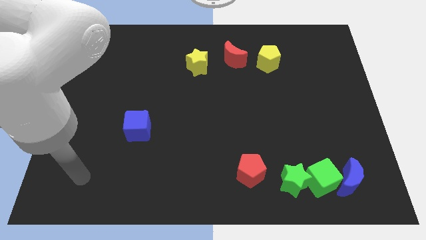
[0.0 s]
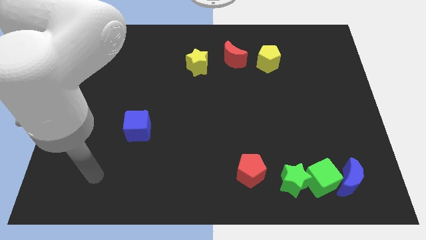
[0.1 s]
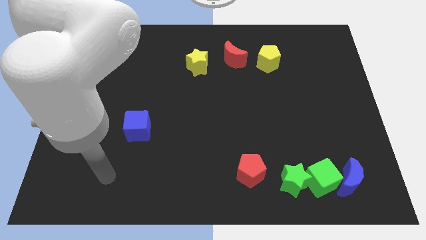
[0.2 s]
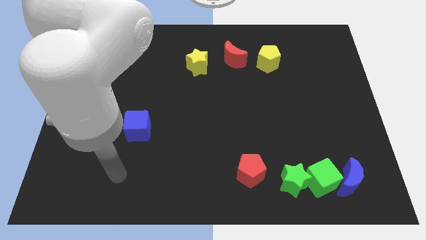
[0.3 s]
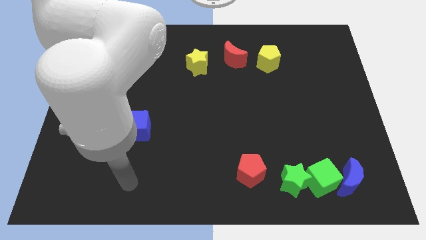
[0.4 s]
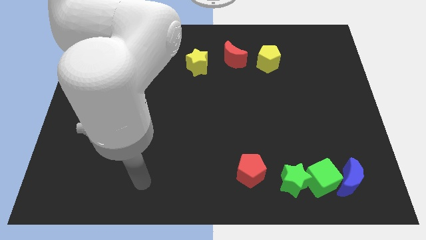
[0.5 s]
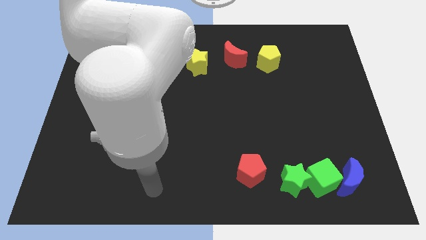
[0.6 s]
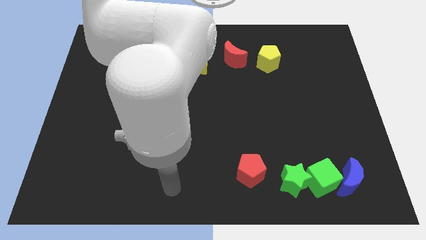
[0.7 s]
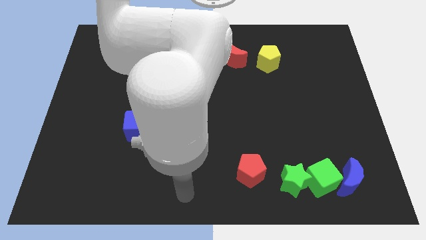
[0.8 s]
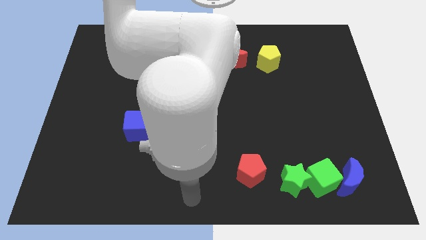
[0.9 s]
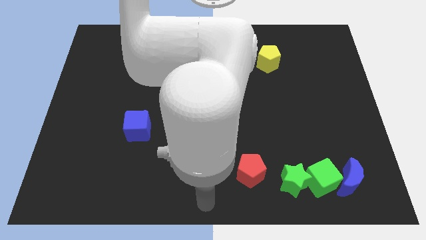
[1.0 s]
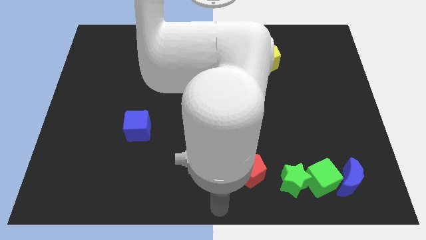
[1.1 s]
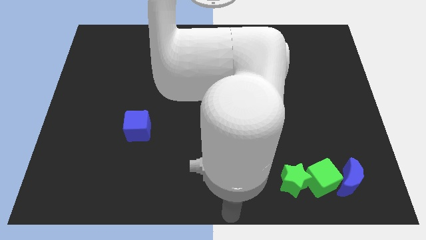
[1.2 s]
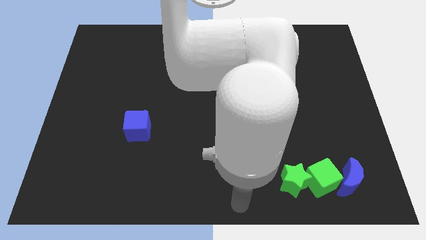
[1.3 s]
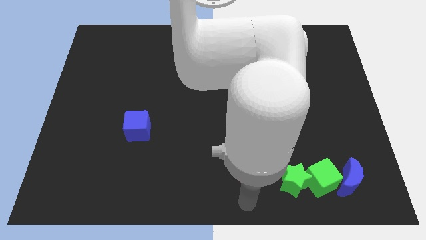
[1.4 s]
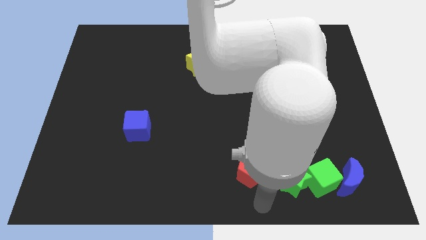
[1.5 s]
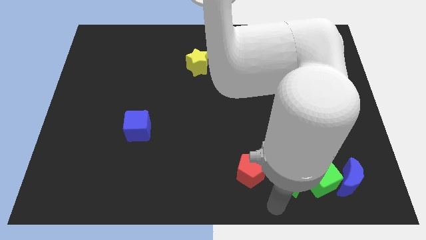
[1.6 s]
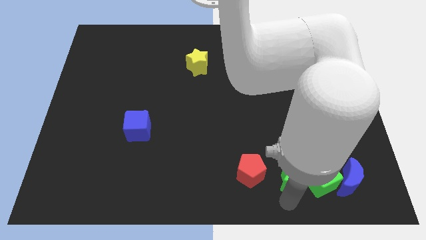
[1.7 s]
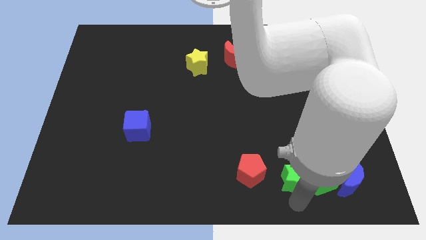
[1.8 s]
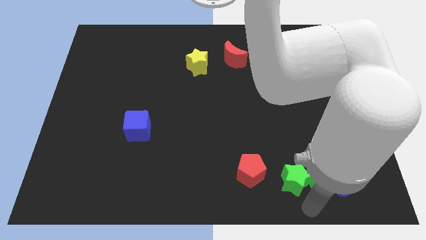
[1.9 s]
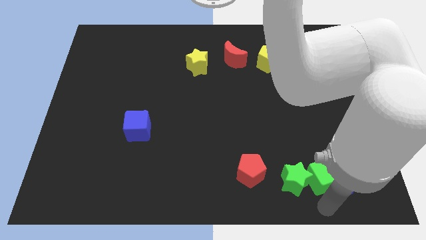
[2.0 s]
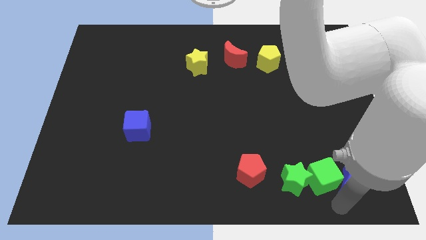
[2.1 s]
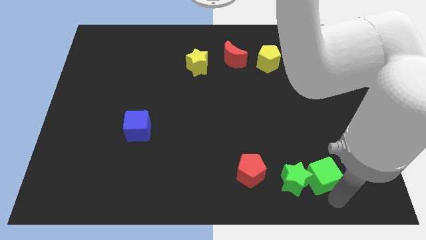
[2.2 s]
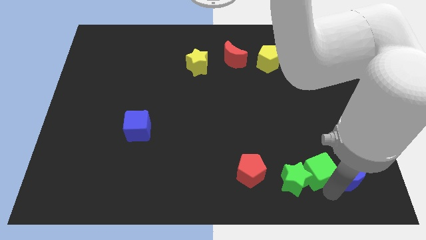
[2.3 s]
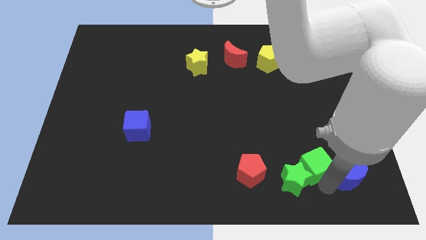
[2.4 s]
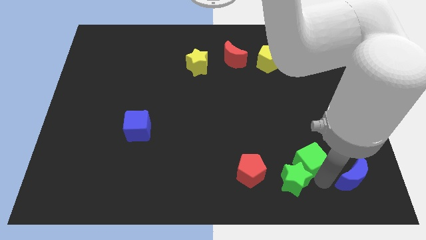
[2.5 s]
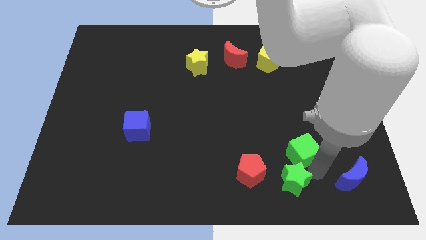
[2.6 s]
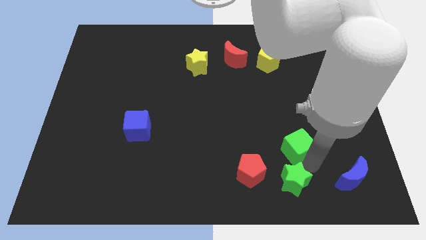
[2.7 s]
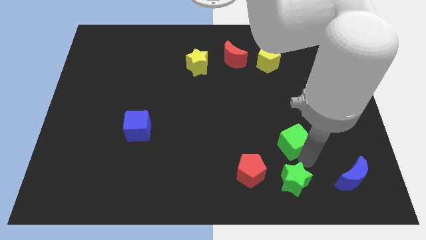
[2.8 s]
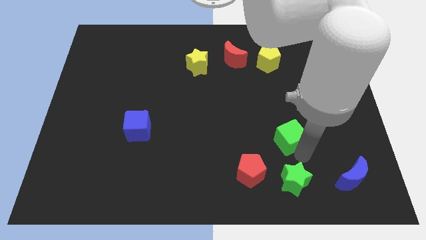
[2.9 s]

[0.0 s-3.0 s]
move the green cube away from the green star and blue moon

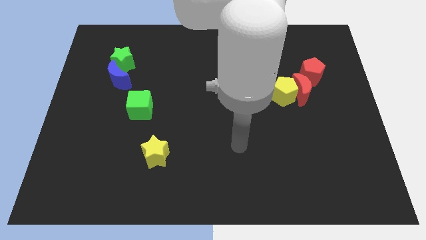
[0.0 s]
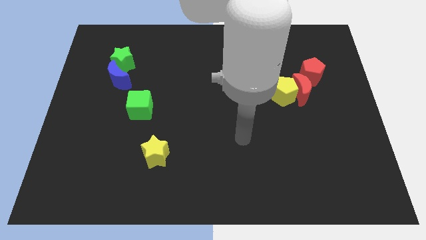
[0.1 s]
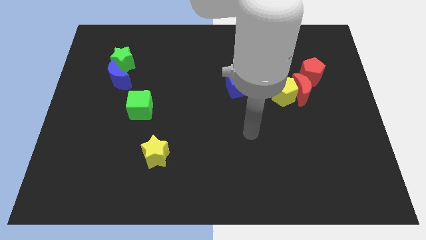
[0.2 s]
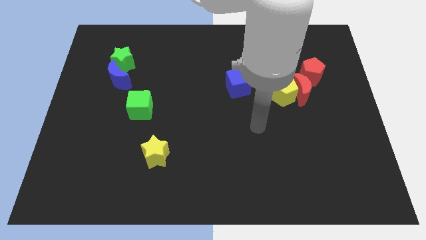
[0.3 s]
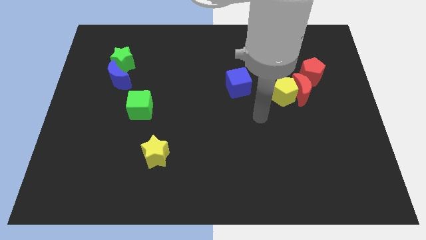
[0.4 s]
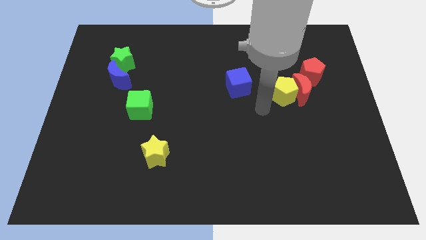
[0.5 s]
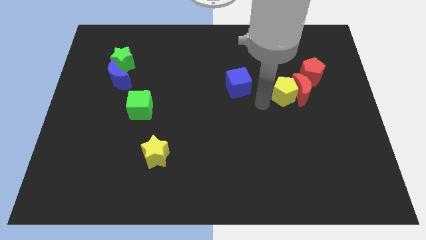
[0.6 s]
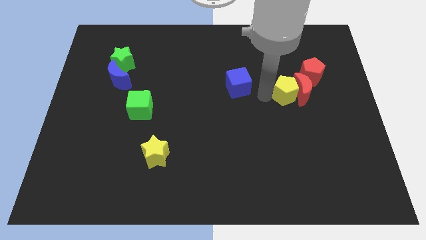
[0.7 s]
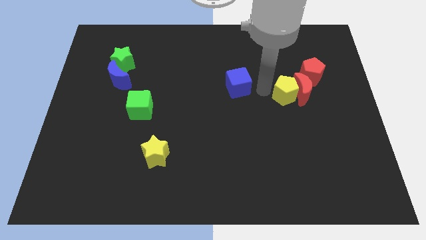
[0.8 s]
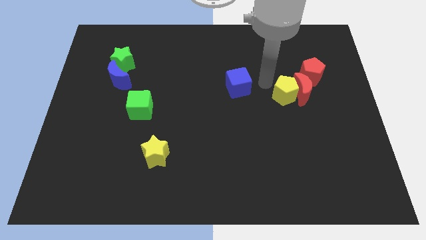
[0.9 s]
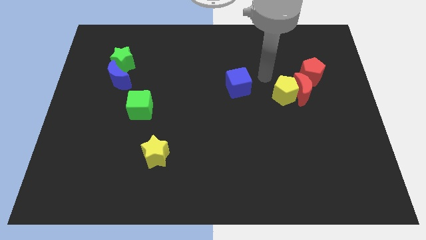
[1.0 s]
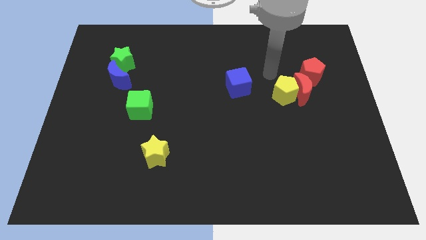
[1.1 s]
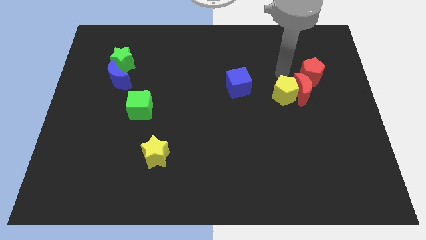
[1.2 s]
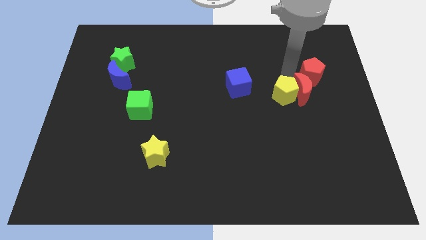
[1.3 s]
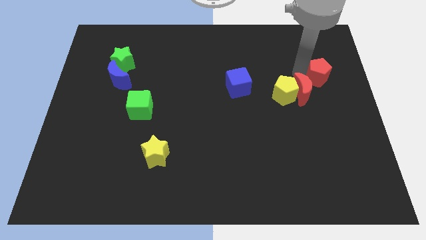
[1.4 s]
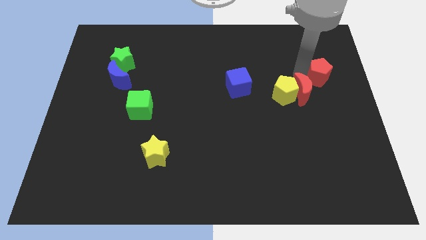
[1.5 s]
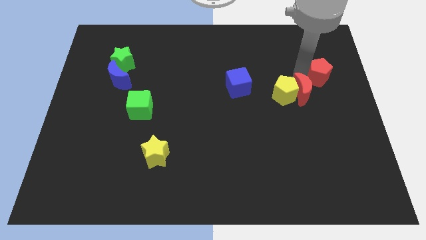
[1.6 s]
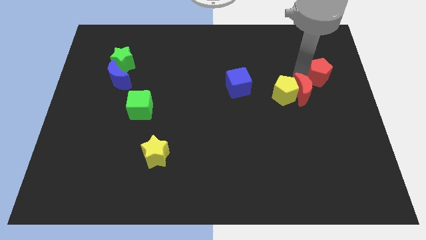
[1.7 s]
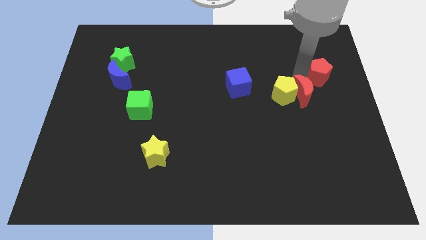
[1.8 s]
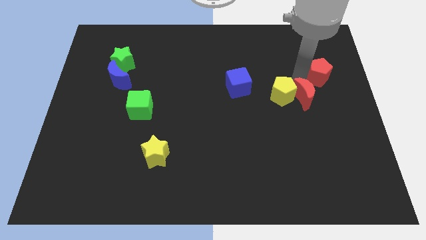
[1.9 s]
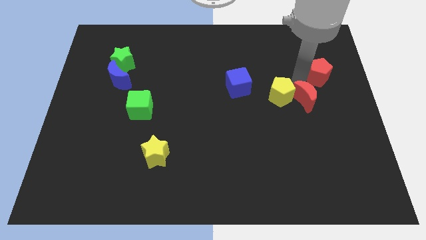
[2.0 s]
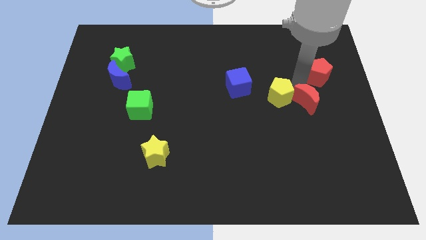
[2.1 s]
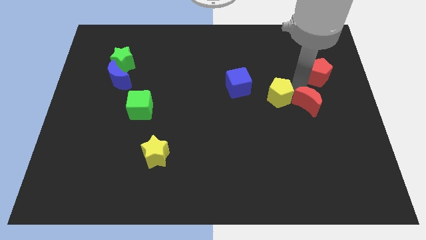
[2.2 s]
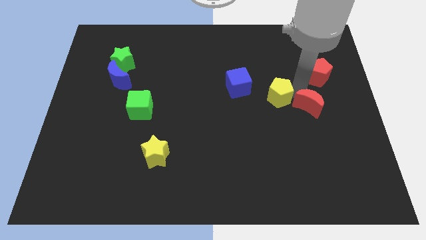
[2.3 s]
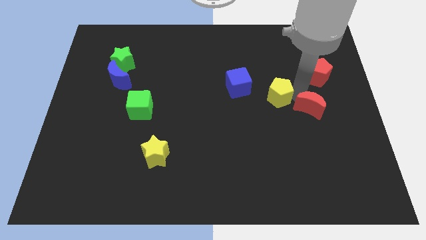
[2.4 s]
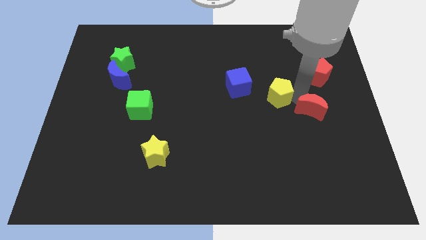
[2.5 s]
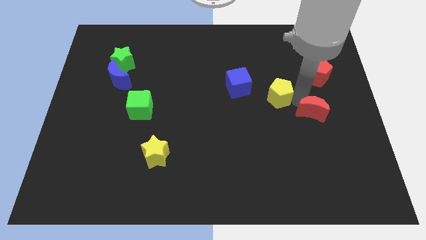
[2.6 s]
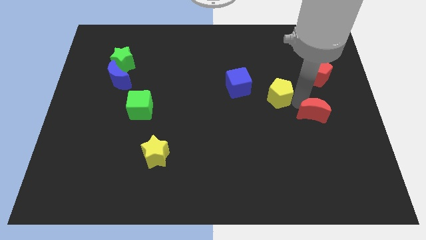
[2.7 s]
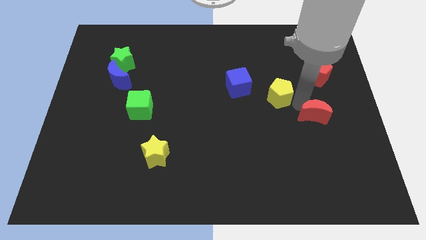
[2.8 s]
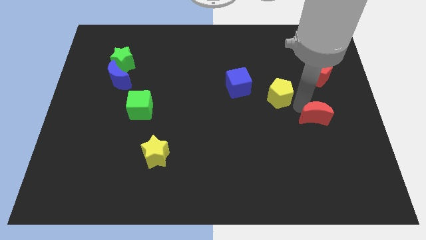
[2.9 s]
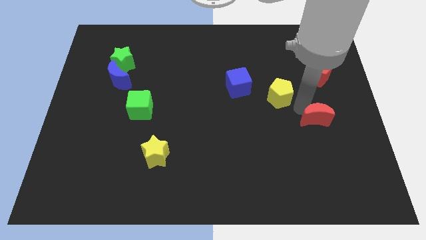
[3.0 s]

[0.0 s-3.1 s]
pull the red moon apart from the yellow pentagon and red pentagon

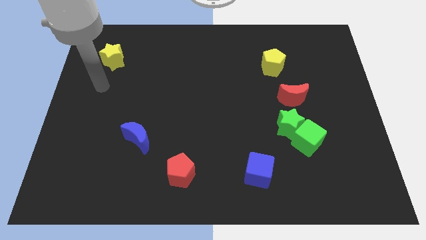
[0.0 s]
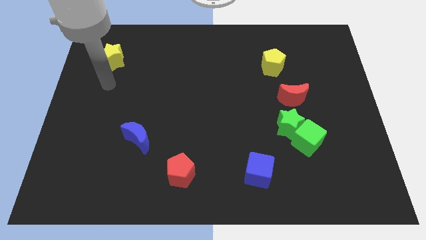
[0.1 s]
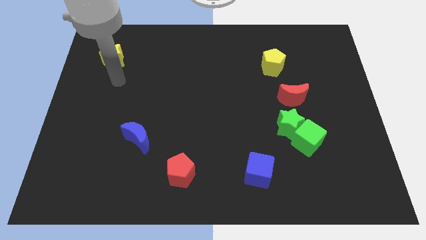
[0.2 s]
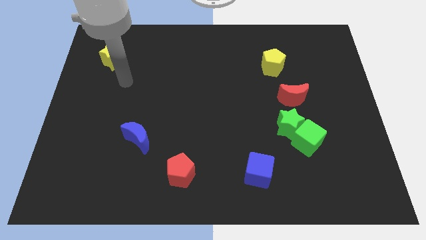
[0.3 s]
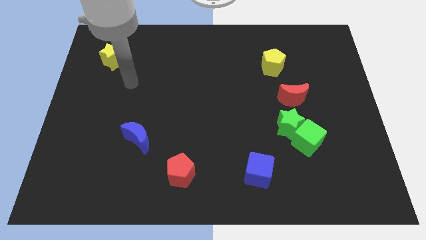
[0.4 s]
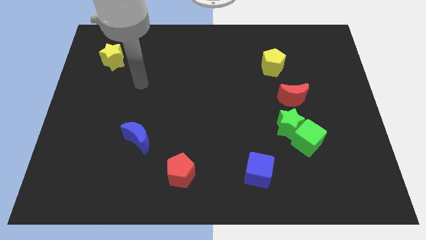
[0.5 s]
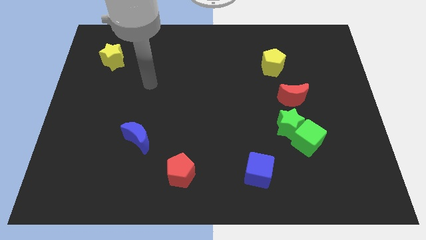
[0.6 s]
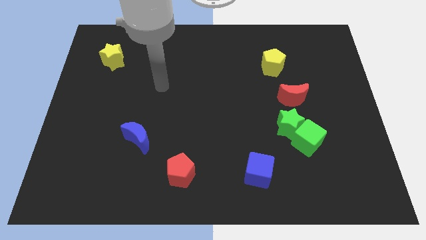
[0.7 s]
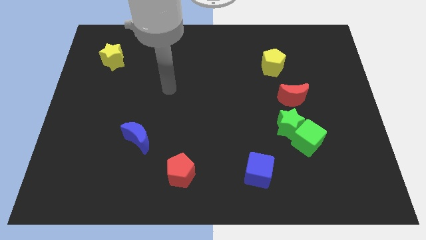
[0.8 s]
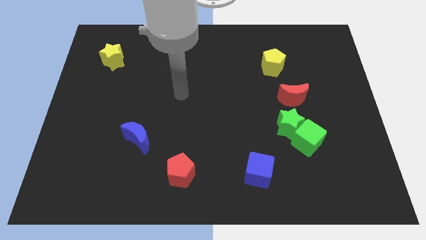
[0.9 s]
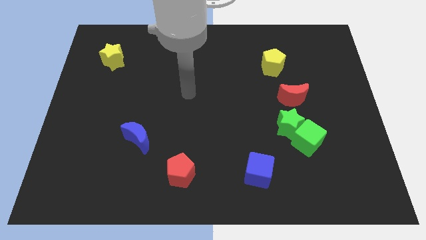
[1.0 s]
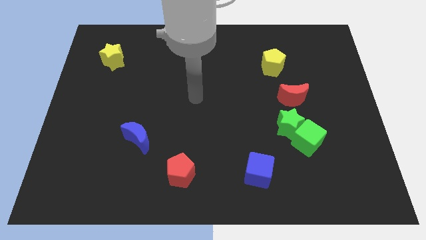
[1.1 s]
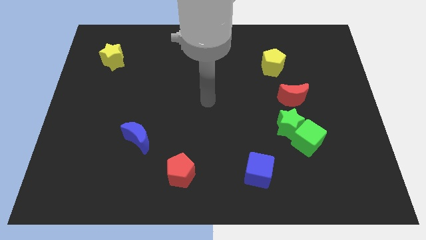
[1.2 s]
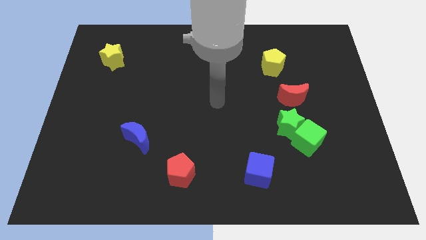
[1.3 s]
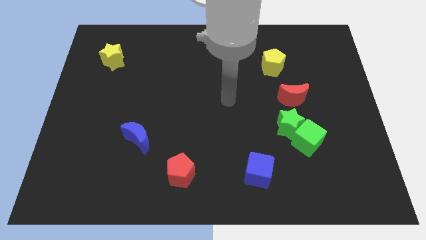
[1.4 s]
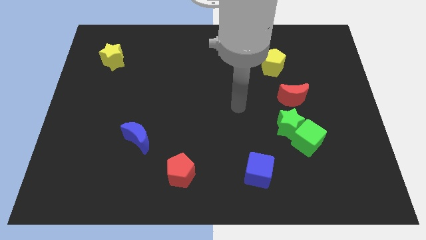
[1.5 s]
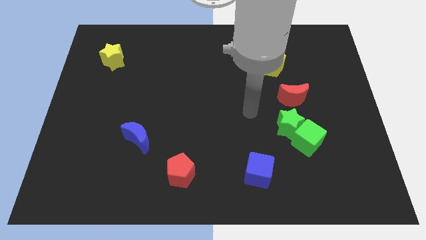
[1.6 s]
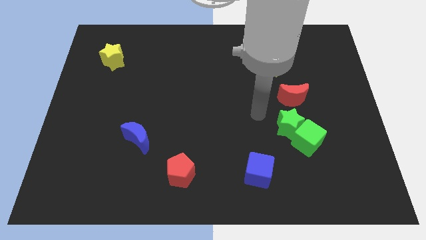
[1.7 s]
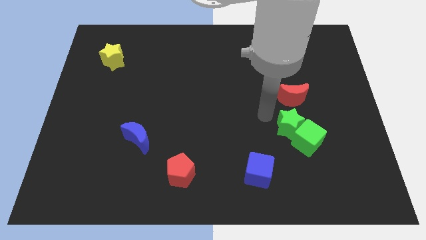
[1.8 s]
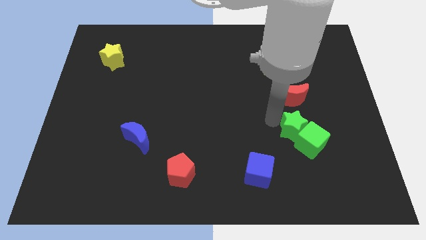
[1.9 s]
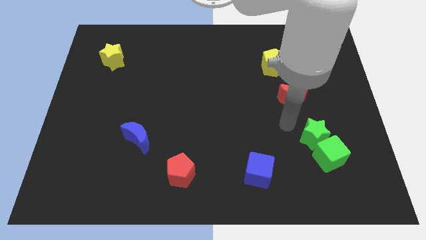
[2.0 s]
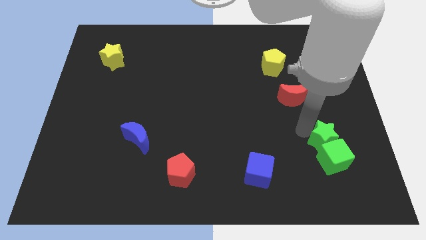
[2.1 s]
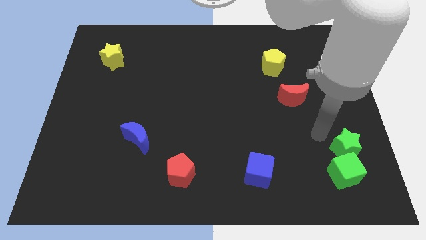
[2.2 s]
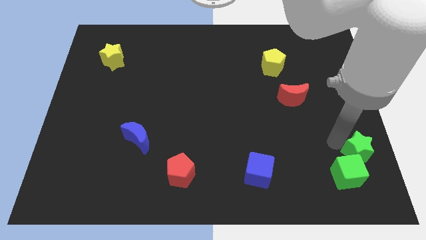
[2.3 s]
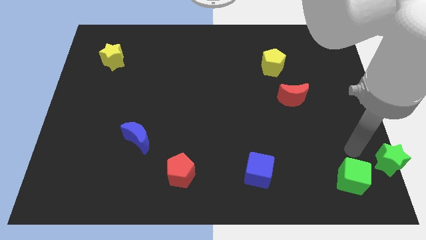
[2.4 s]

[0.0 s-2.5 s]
move the green cube away from the green star

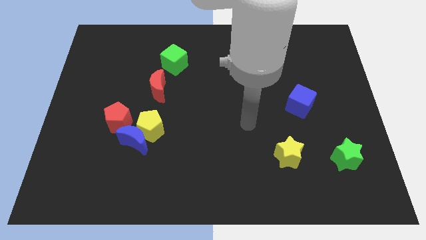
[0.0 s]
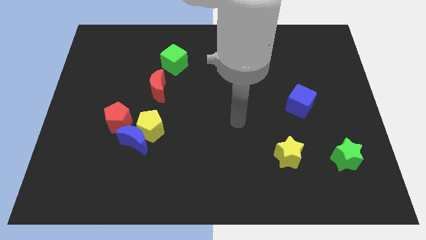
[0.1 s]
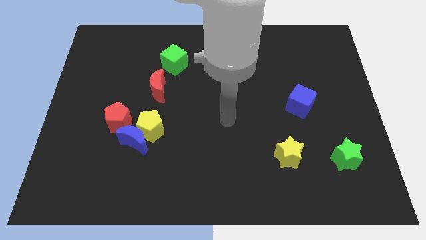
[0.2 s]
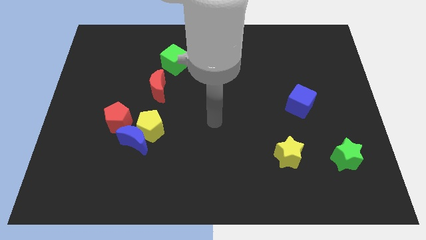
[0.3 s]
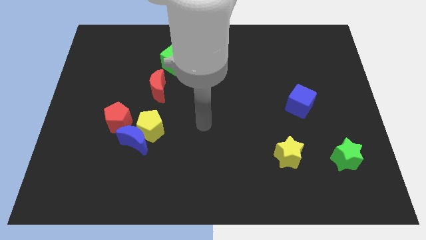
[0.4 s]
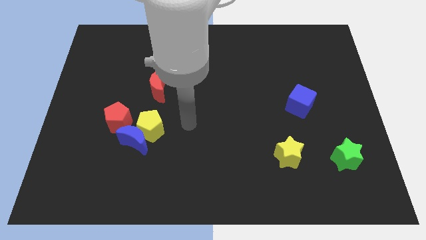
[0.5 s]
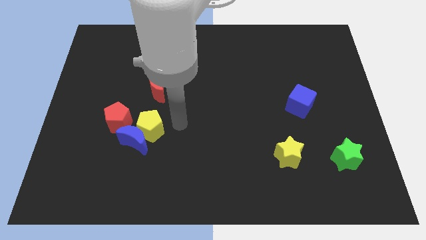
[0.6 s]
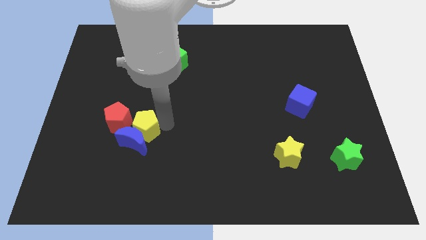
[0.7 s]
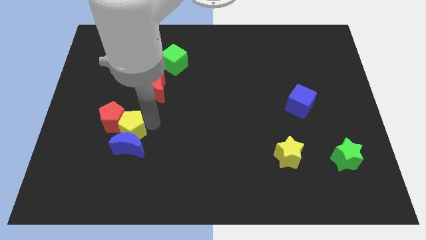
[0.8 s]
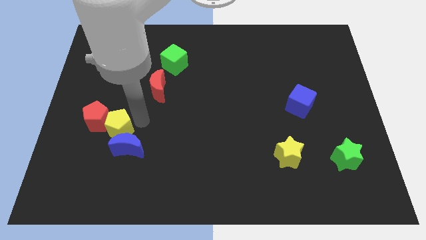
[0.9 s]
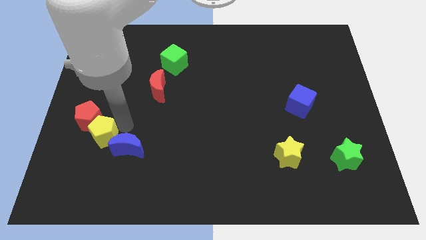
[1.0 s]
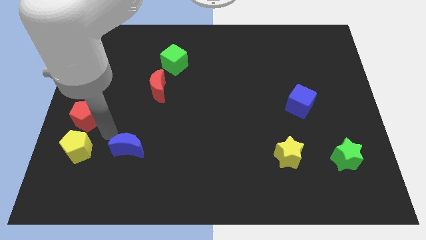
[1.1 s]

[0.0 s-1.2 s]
move the blue moon away from the yellow pentagon and red pentagon
